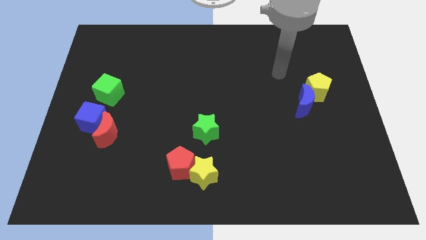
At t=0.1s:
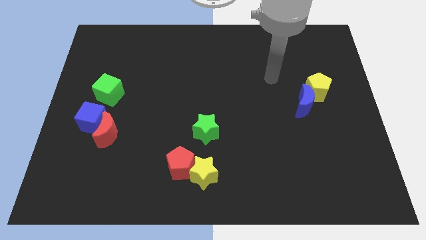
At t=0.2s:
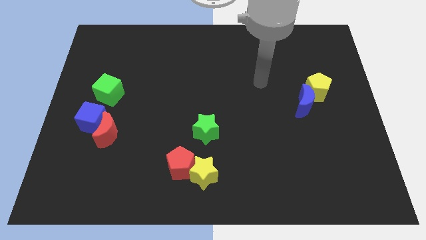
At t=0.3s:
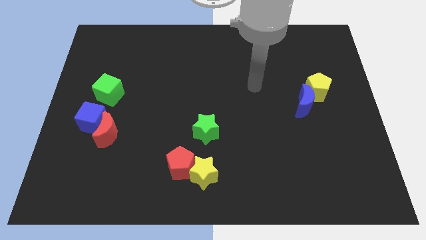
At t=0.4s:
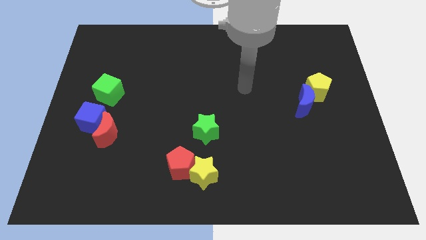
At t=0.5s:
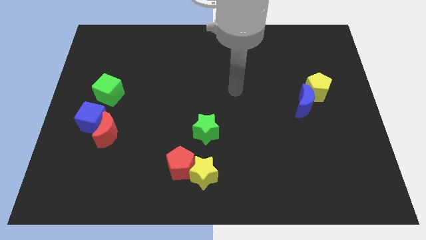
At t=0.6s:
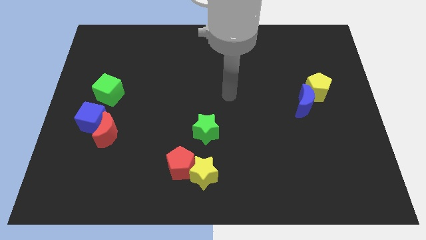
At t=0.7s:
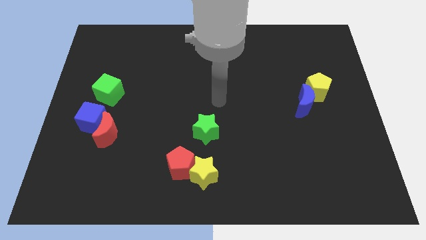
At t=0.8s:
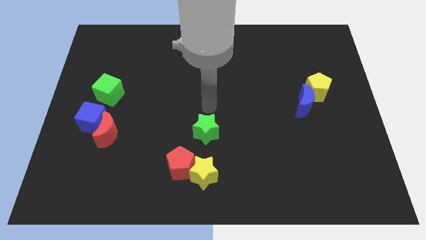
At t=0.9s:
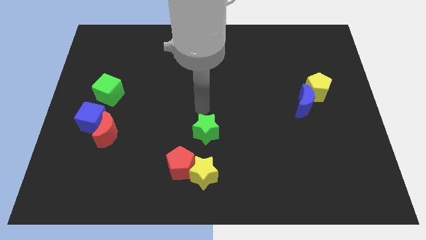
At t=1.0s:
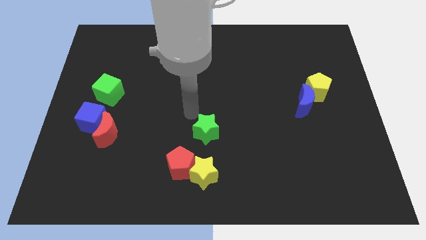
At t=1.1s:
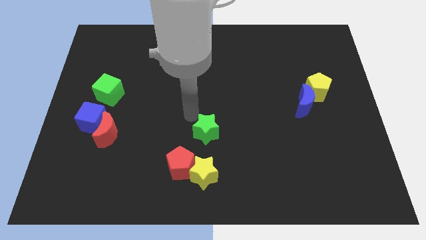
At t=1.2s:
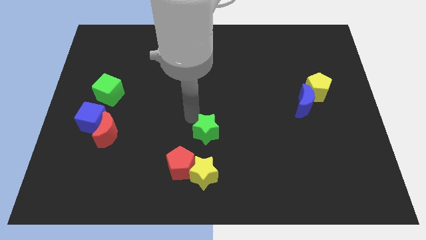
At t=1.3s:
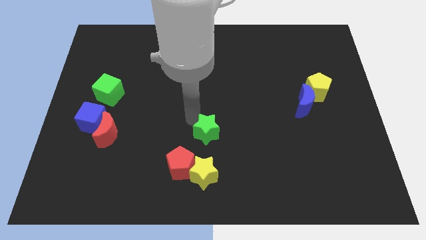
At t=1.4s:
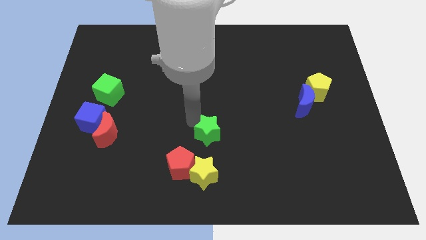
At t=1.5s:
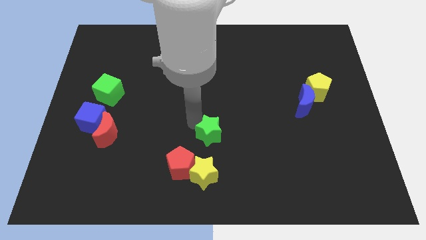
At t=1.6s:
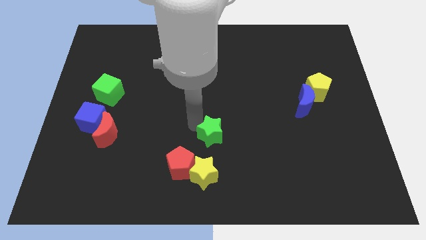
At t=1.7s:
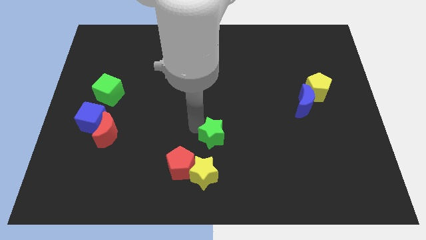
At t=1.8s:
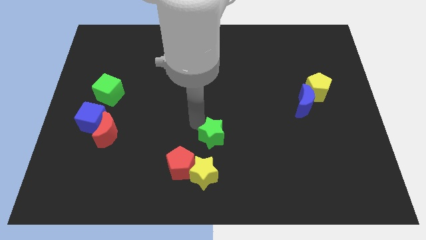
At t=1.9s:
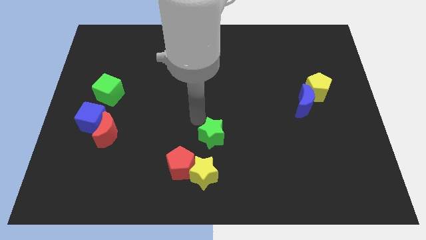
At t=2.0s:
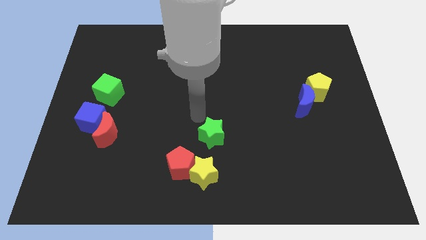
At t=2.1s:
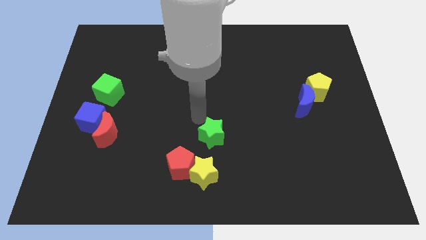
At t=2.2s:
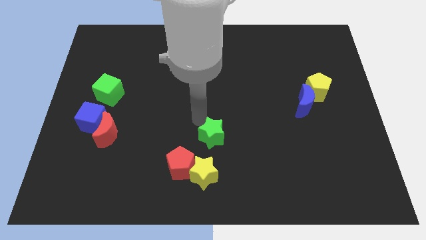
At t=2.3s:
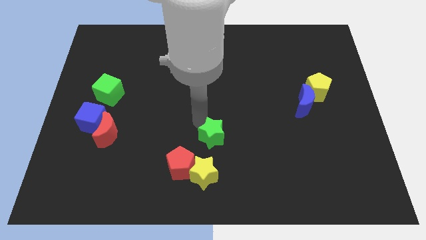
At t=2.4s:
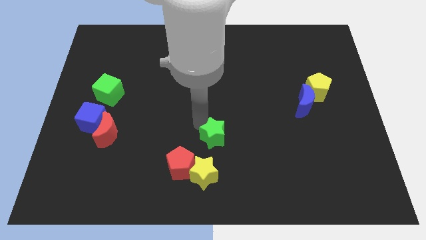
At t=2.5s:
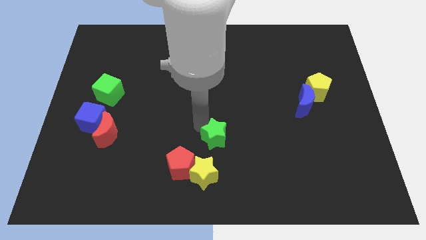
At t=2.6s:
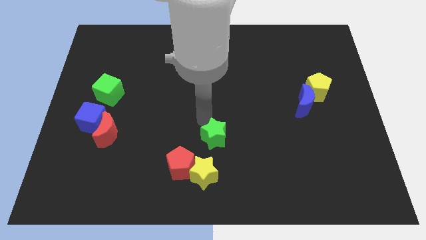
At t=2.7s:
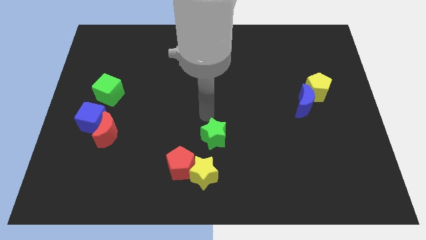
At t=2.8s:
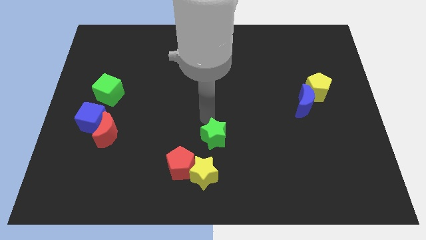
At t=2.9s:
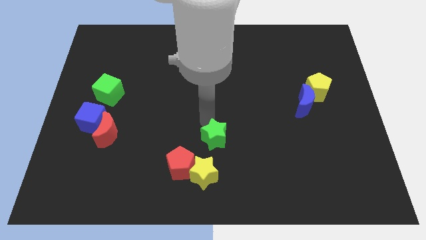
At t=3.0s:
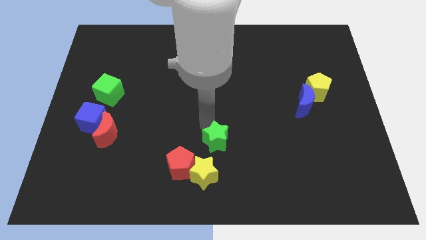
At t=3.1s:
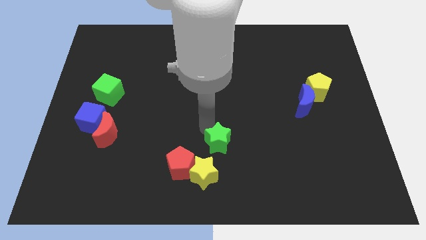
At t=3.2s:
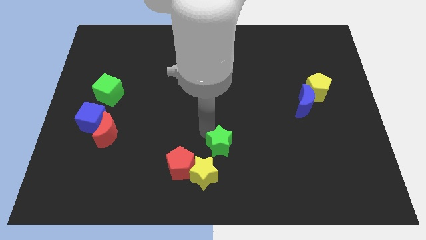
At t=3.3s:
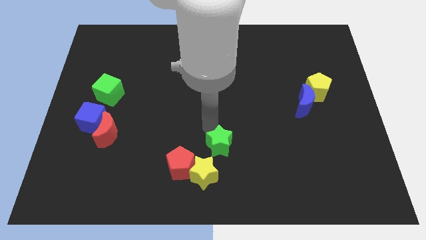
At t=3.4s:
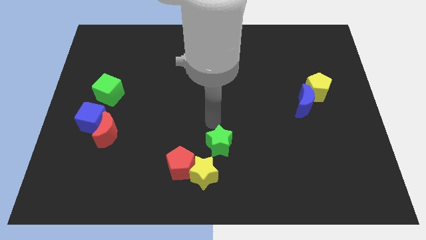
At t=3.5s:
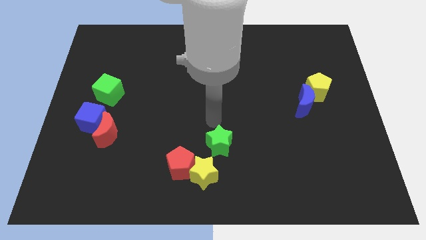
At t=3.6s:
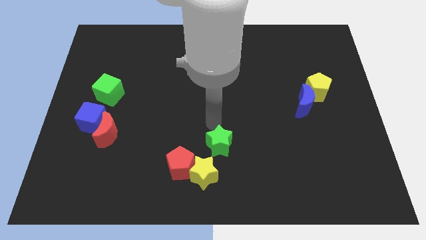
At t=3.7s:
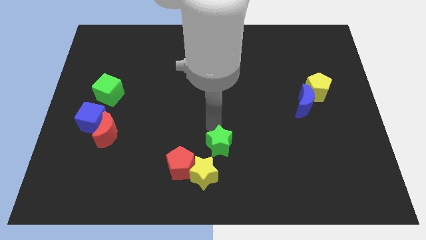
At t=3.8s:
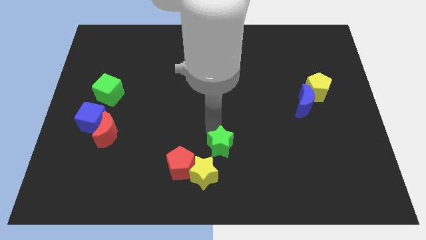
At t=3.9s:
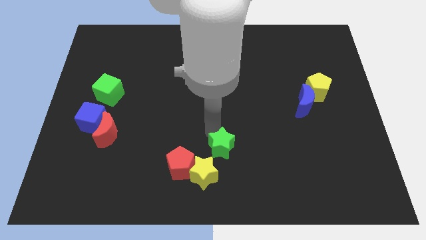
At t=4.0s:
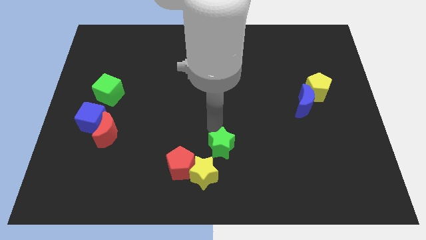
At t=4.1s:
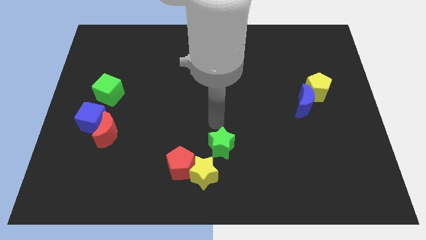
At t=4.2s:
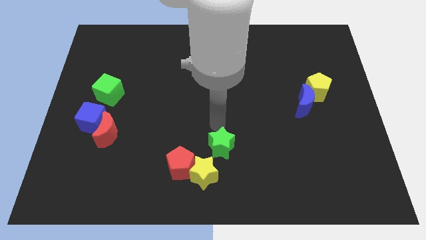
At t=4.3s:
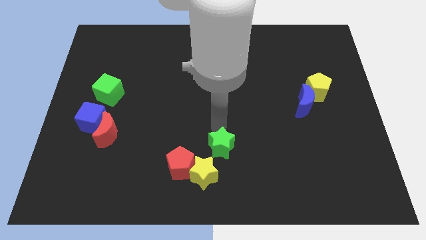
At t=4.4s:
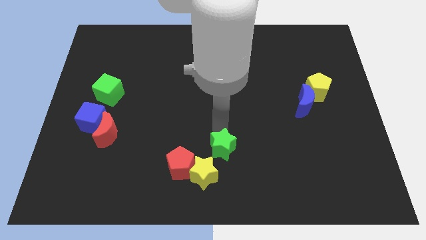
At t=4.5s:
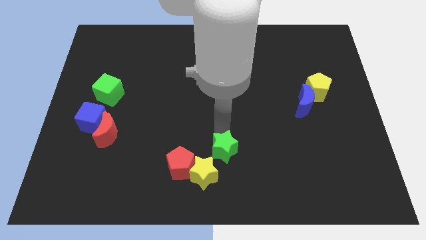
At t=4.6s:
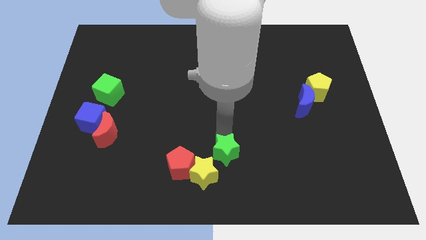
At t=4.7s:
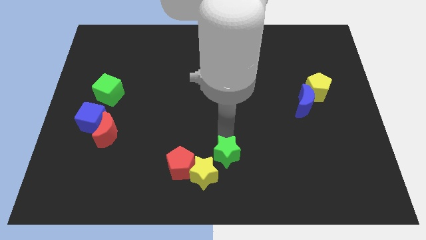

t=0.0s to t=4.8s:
slide the green star to the bottom

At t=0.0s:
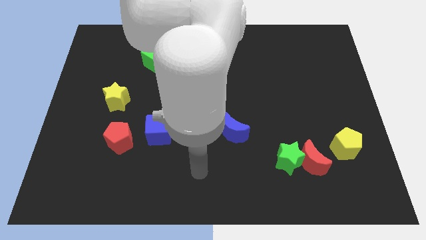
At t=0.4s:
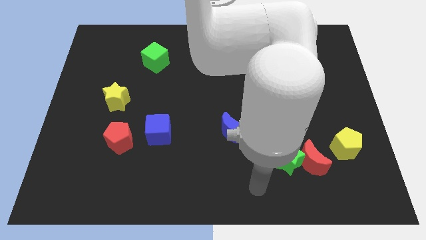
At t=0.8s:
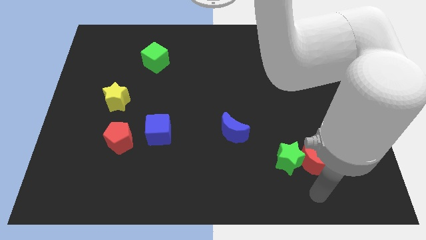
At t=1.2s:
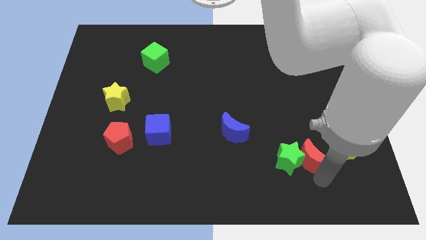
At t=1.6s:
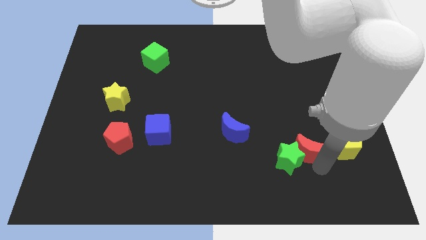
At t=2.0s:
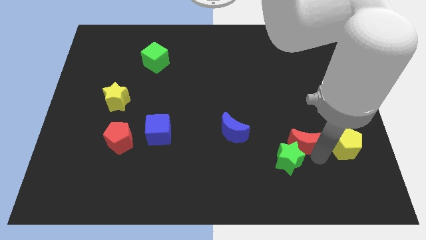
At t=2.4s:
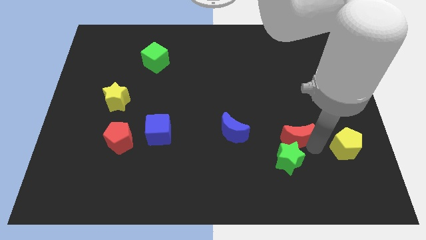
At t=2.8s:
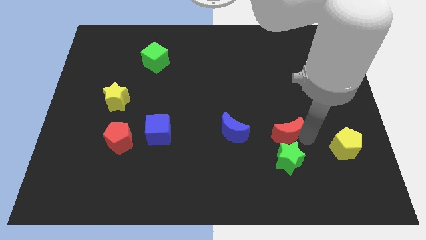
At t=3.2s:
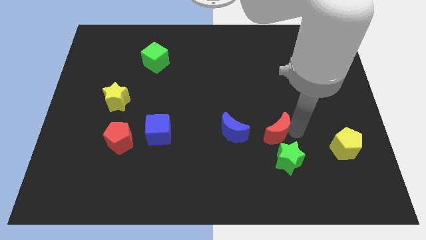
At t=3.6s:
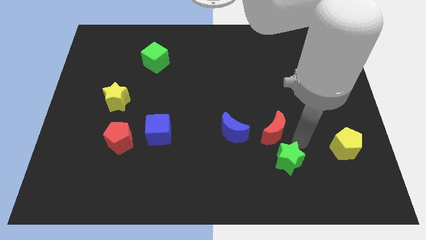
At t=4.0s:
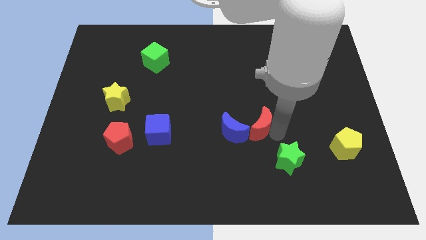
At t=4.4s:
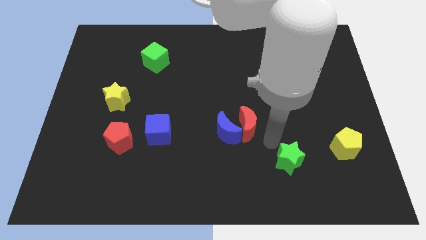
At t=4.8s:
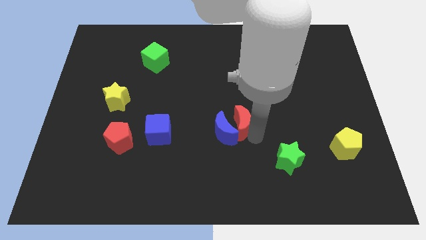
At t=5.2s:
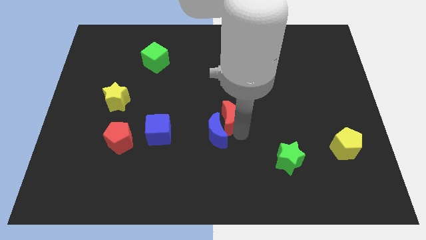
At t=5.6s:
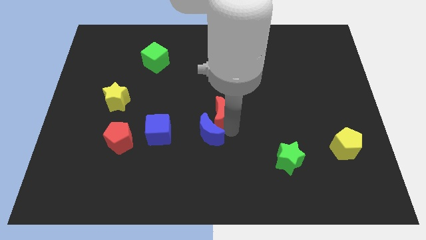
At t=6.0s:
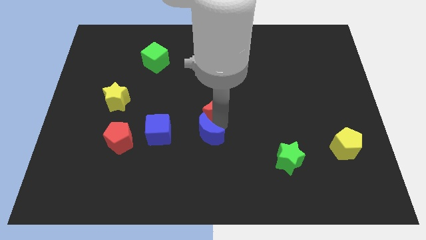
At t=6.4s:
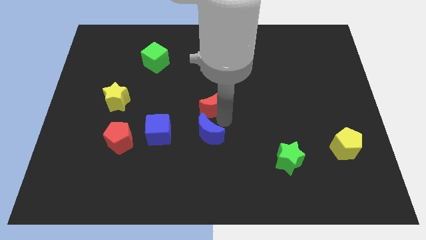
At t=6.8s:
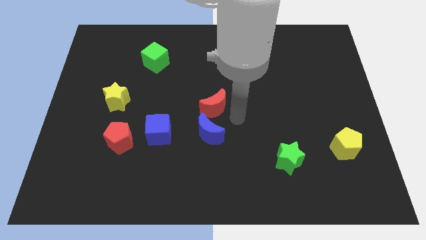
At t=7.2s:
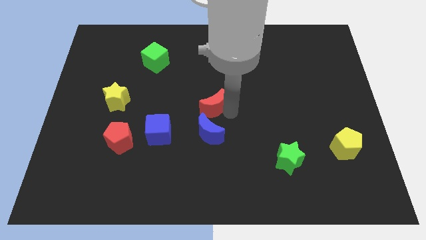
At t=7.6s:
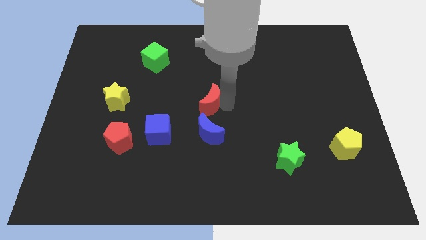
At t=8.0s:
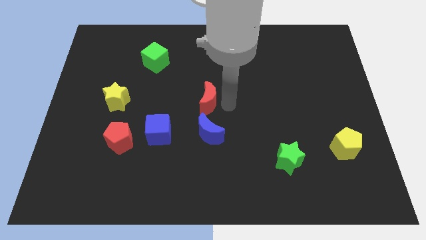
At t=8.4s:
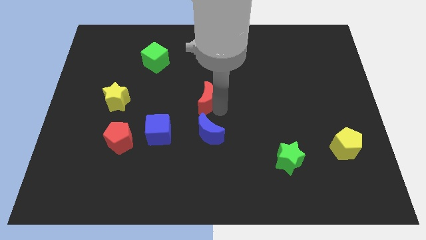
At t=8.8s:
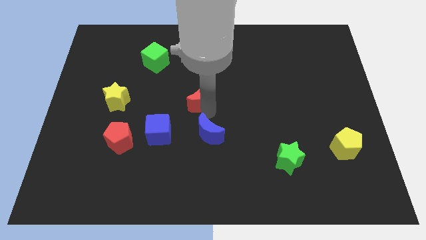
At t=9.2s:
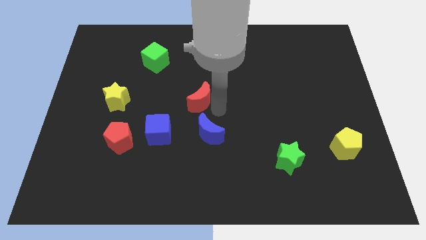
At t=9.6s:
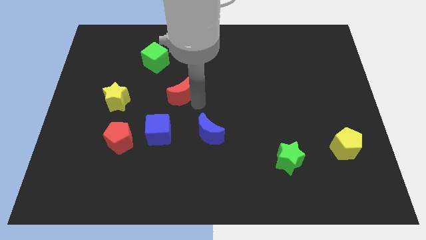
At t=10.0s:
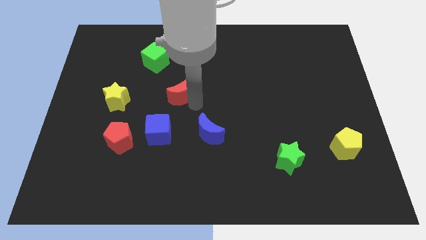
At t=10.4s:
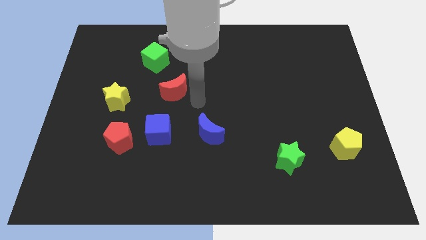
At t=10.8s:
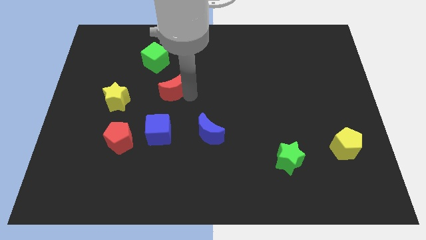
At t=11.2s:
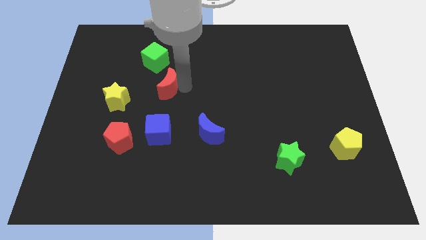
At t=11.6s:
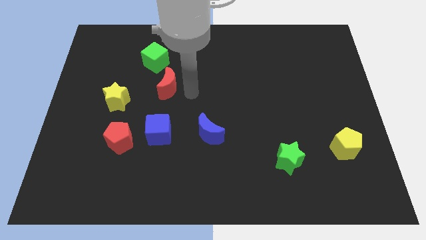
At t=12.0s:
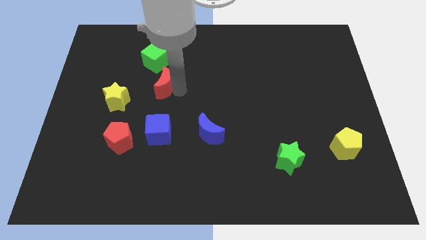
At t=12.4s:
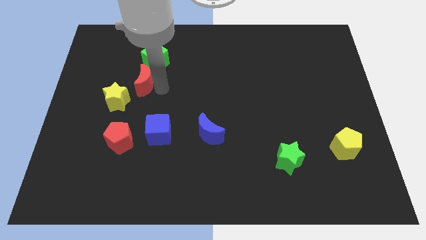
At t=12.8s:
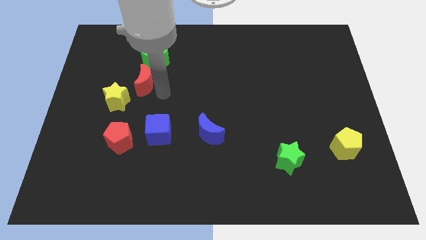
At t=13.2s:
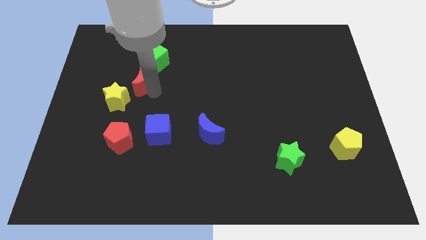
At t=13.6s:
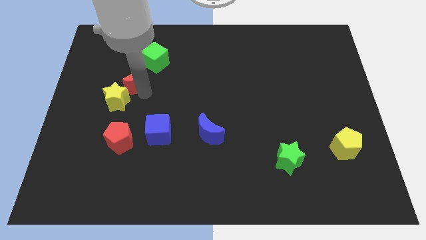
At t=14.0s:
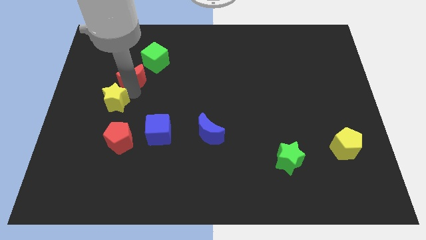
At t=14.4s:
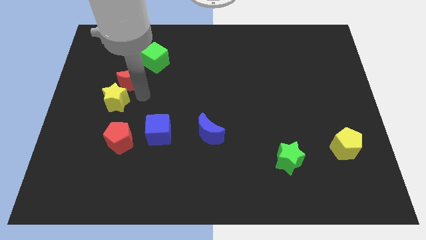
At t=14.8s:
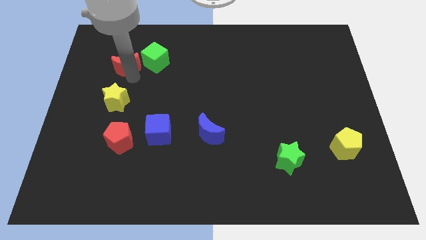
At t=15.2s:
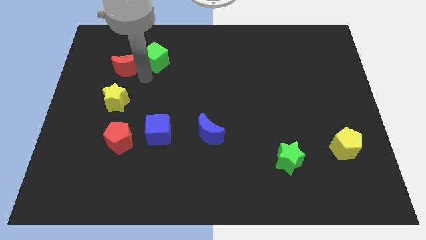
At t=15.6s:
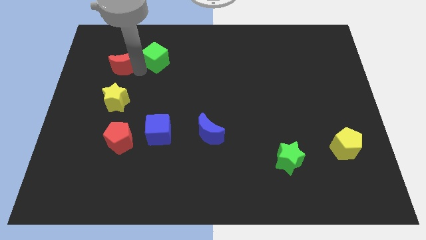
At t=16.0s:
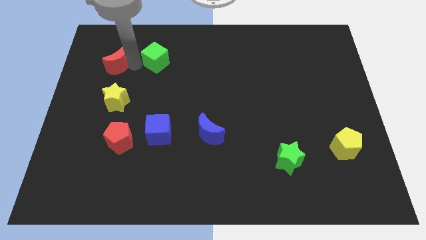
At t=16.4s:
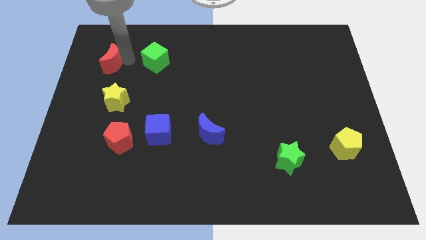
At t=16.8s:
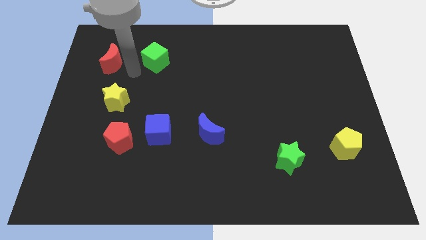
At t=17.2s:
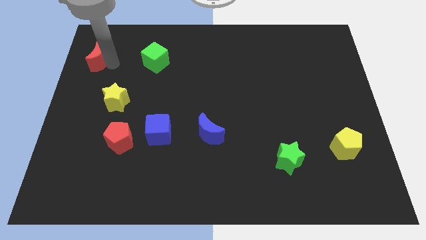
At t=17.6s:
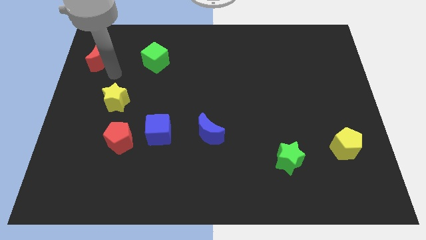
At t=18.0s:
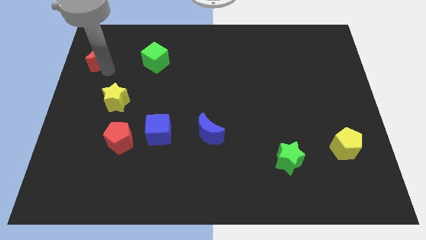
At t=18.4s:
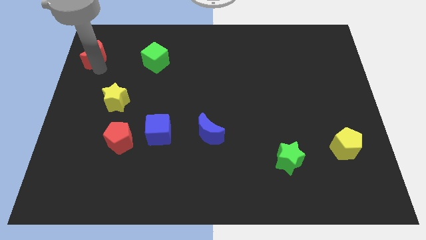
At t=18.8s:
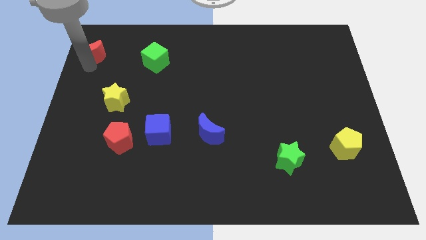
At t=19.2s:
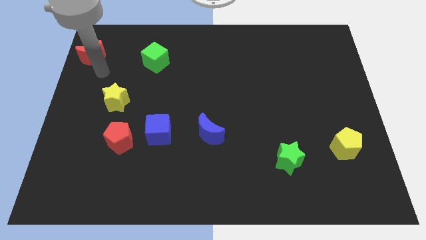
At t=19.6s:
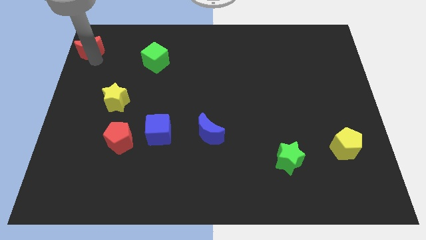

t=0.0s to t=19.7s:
slide the red moon to the top left
